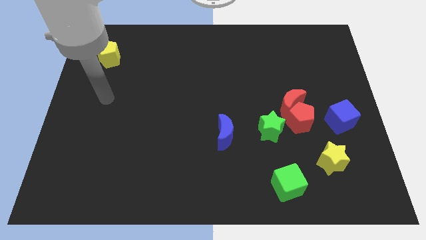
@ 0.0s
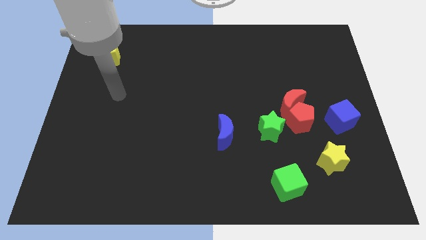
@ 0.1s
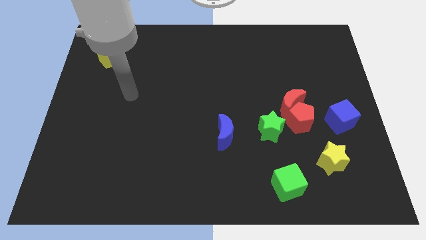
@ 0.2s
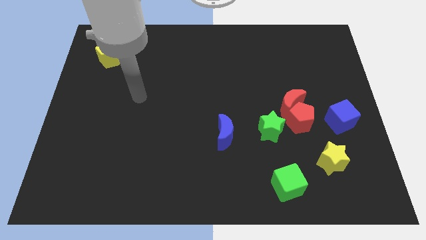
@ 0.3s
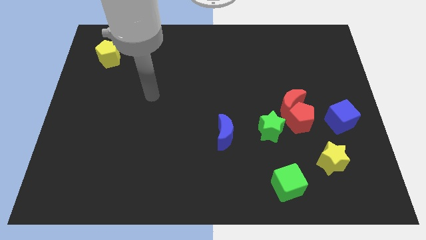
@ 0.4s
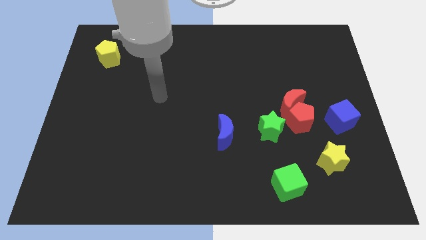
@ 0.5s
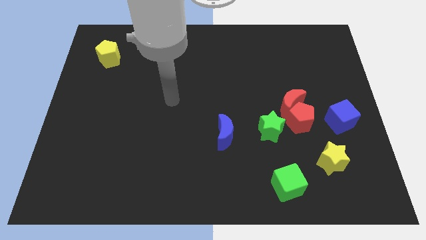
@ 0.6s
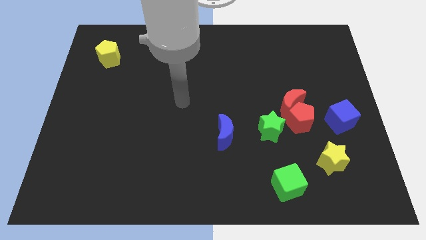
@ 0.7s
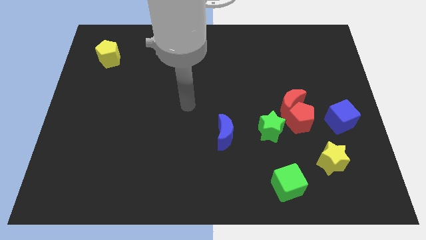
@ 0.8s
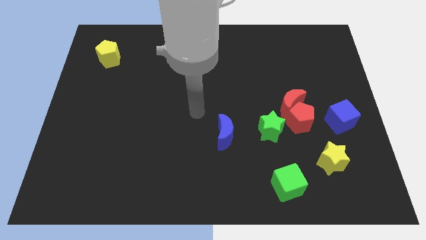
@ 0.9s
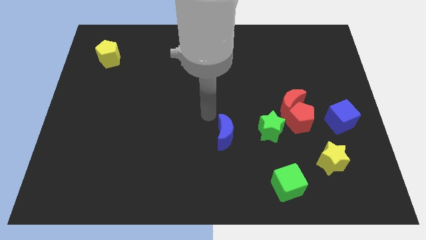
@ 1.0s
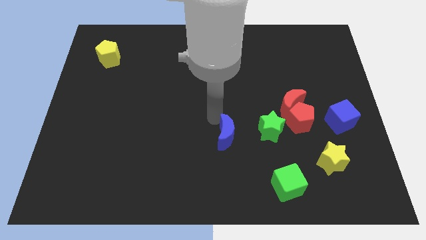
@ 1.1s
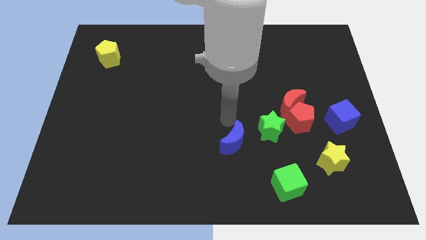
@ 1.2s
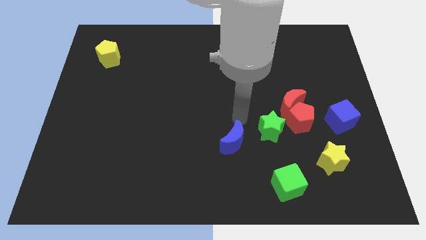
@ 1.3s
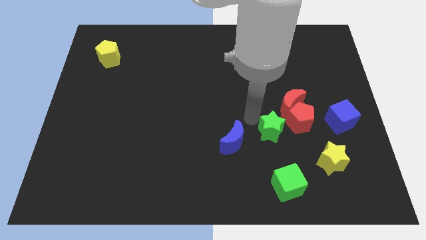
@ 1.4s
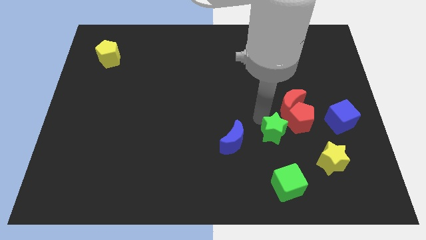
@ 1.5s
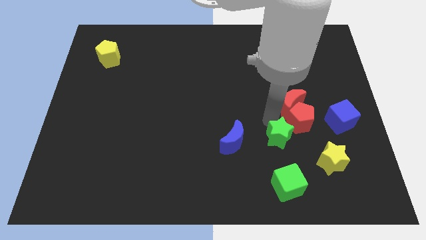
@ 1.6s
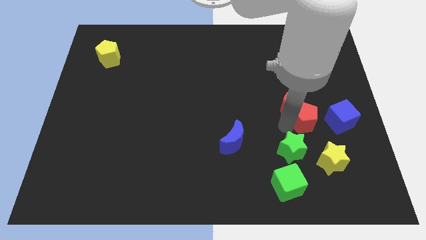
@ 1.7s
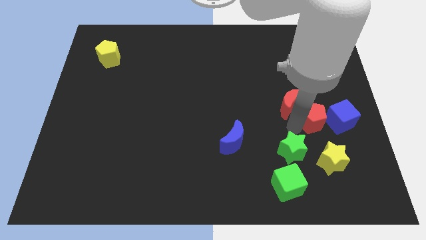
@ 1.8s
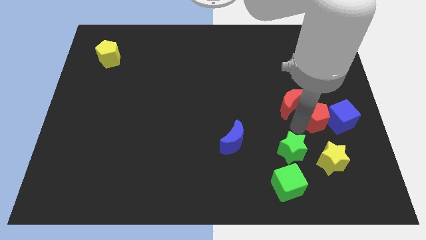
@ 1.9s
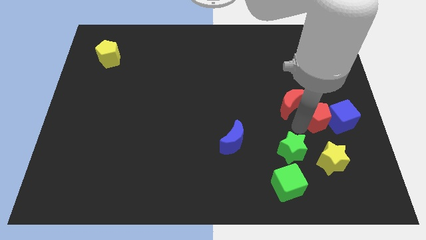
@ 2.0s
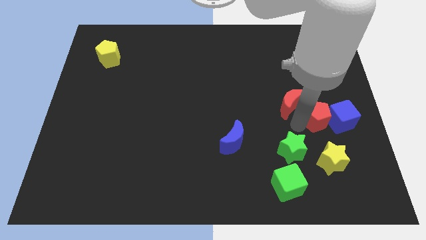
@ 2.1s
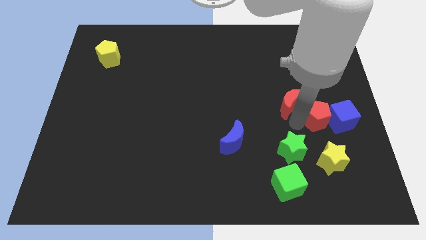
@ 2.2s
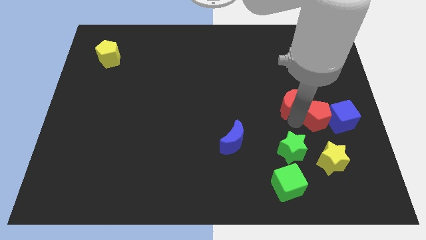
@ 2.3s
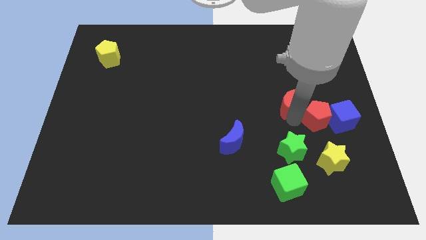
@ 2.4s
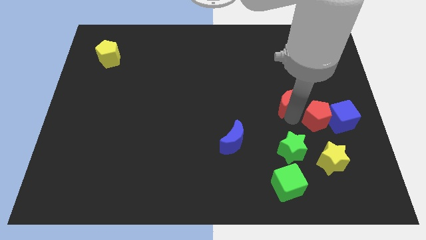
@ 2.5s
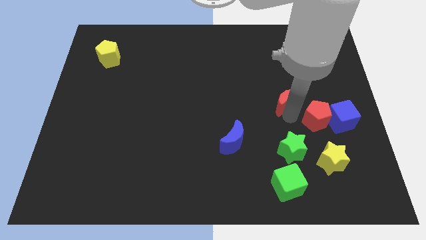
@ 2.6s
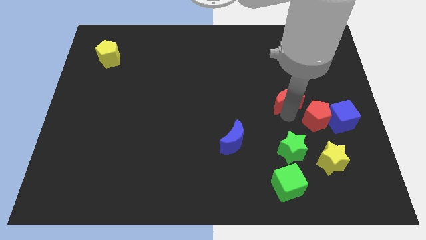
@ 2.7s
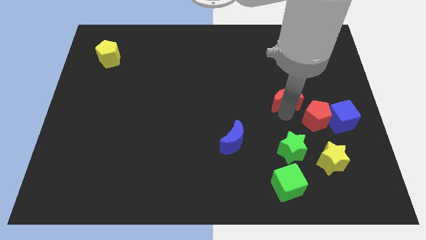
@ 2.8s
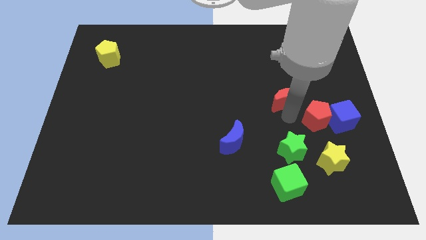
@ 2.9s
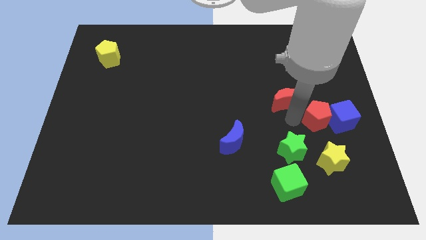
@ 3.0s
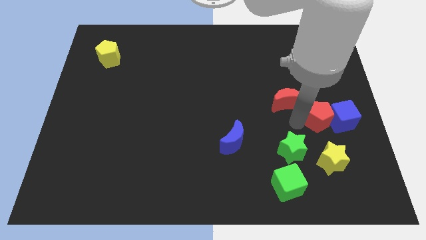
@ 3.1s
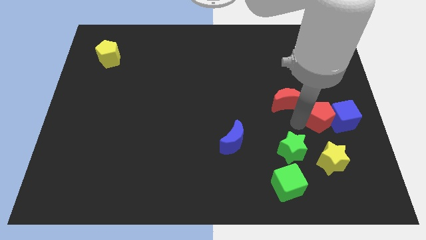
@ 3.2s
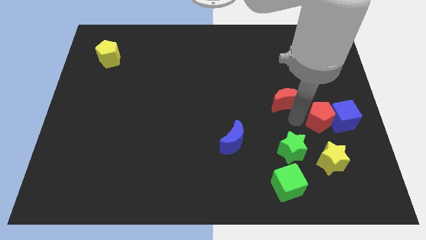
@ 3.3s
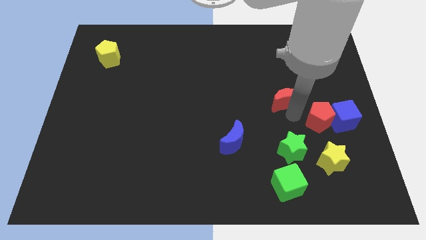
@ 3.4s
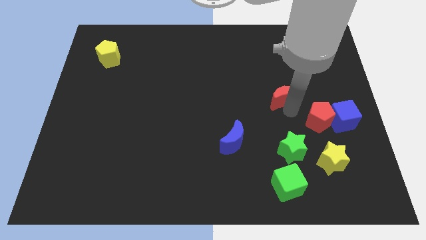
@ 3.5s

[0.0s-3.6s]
separate the red moon from the red pentagon and green star

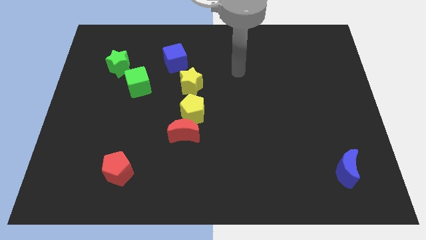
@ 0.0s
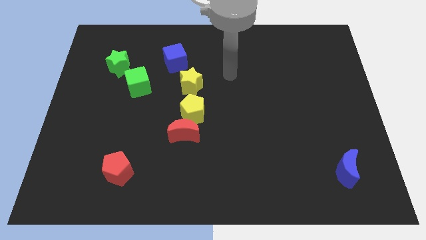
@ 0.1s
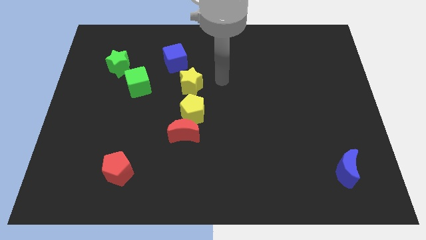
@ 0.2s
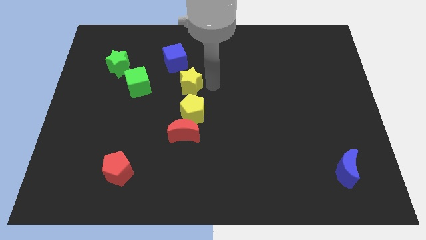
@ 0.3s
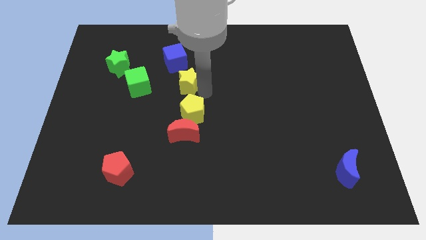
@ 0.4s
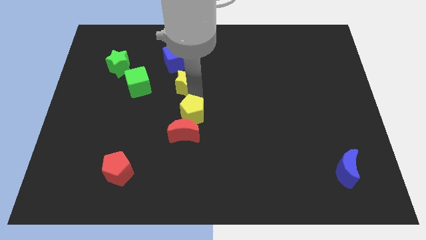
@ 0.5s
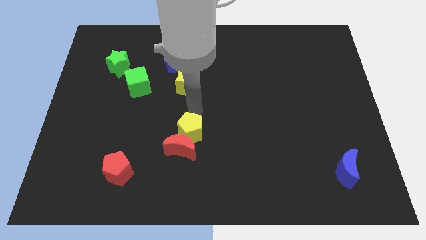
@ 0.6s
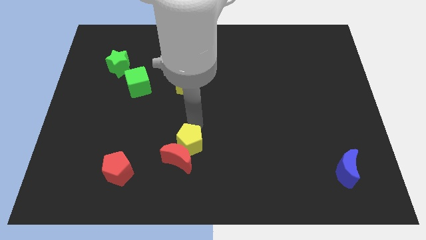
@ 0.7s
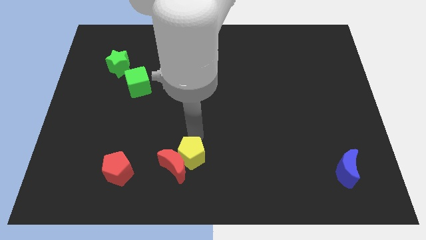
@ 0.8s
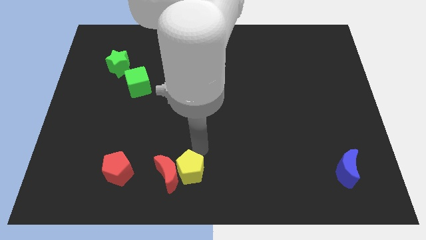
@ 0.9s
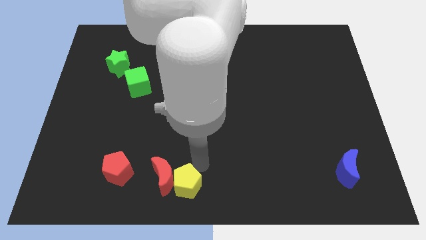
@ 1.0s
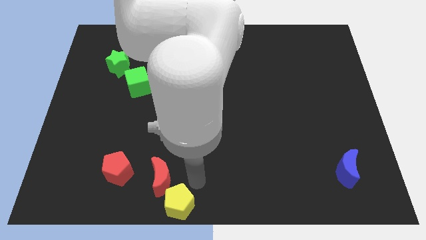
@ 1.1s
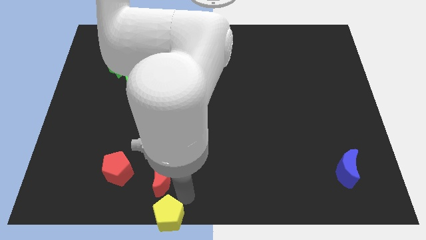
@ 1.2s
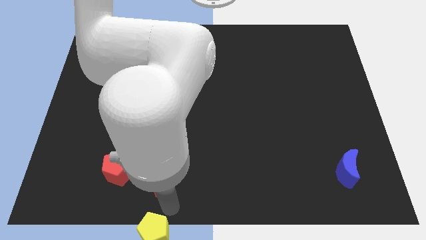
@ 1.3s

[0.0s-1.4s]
move the red moon away from the yellow pentagon

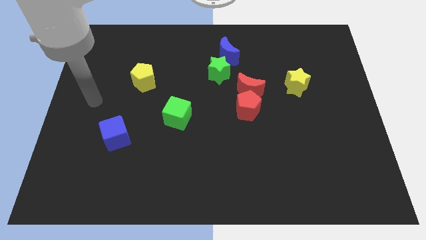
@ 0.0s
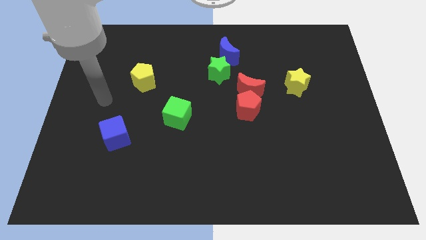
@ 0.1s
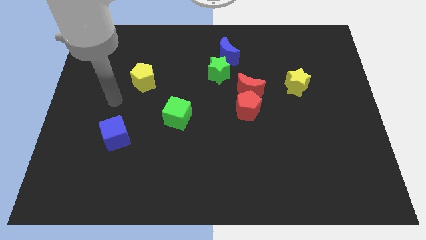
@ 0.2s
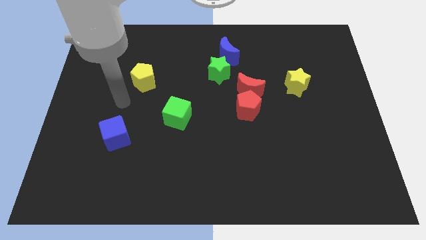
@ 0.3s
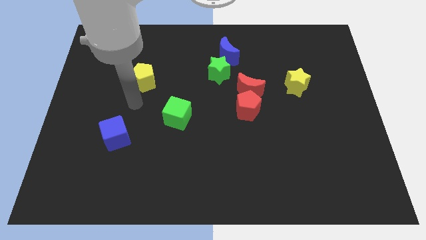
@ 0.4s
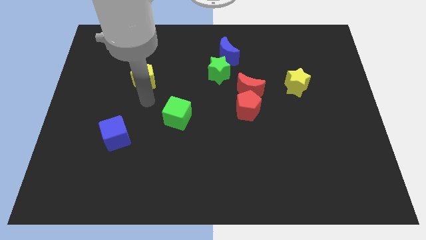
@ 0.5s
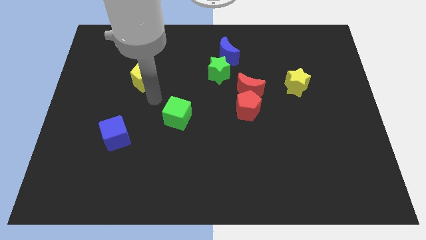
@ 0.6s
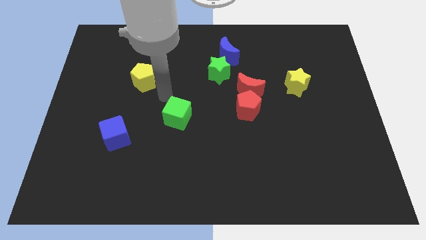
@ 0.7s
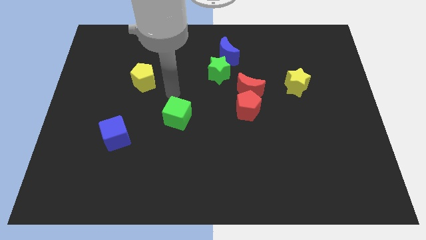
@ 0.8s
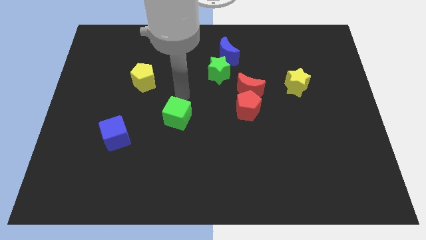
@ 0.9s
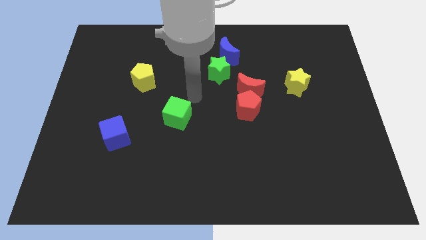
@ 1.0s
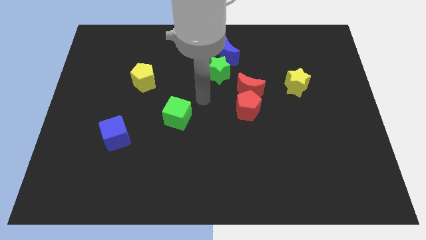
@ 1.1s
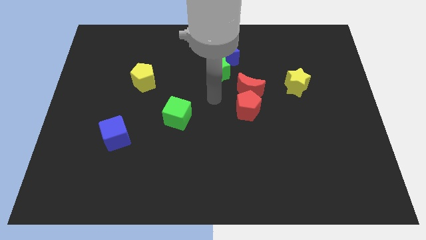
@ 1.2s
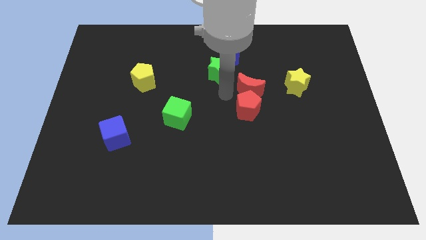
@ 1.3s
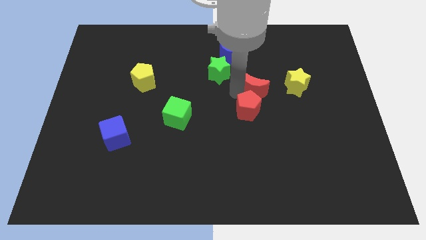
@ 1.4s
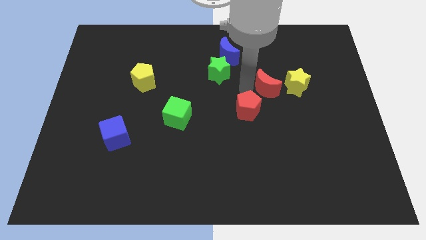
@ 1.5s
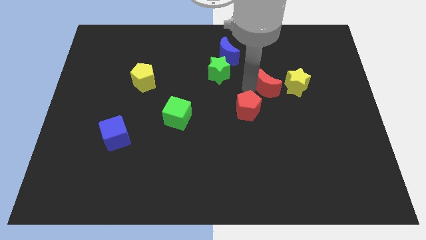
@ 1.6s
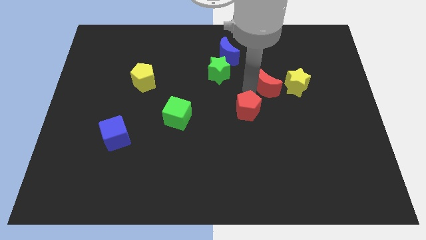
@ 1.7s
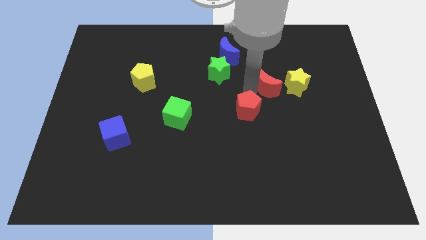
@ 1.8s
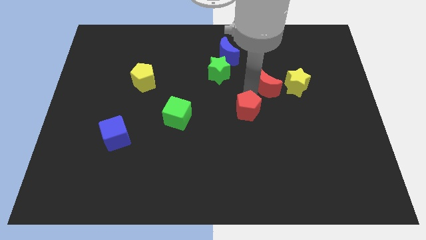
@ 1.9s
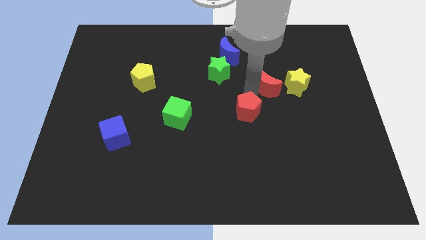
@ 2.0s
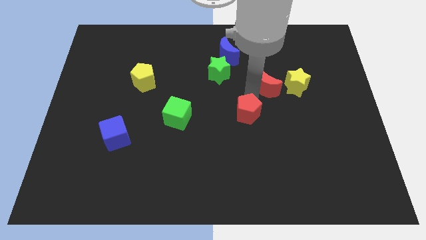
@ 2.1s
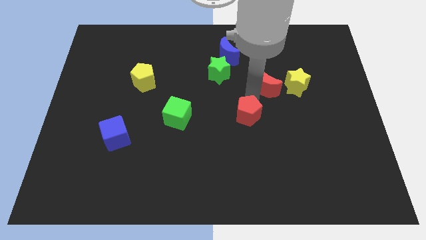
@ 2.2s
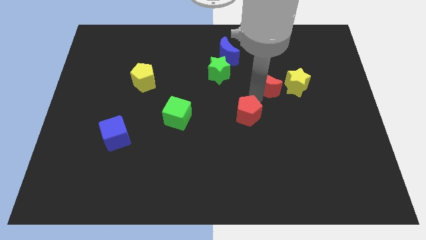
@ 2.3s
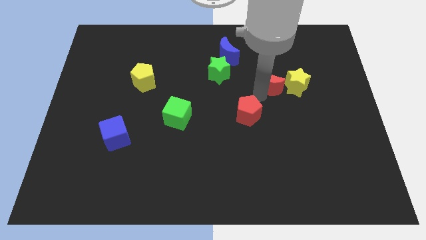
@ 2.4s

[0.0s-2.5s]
pull the red pentagon apart from the red moon

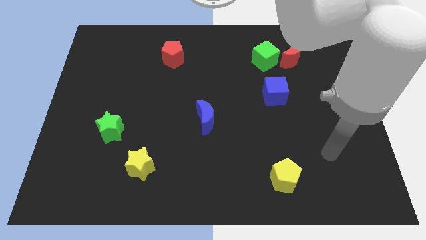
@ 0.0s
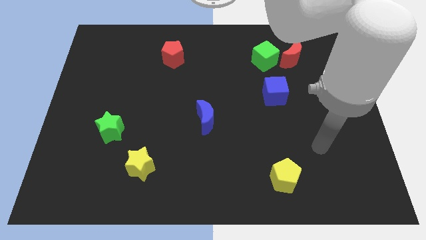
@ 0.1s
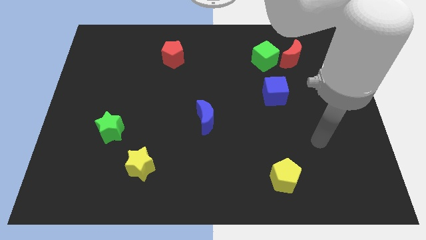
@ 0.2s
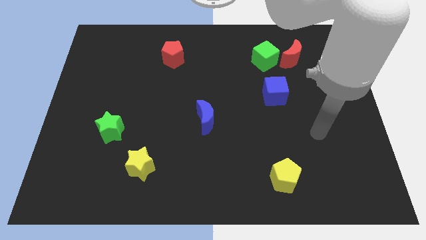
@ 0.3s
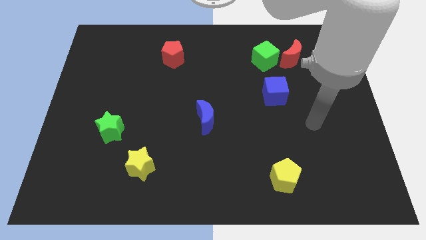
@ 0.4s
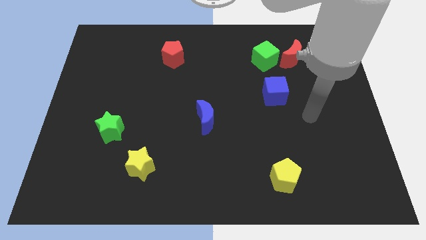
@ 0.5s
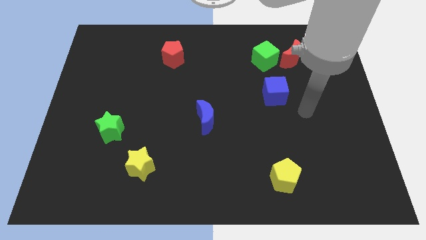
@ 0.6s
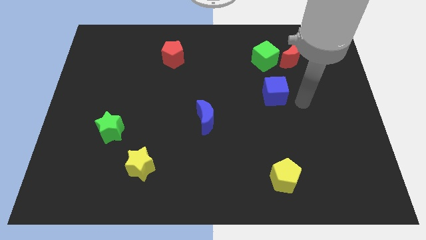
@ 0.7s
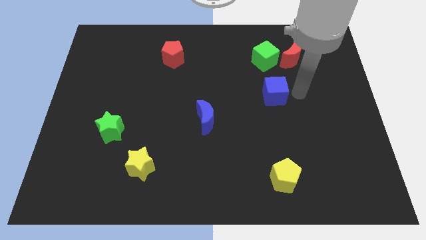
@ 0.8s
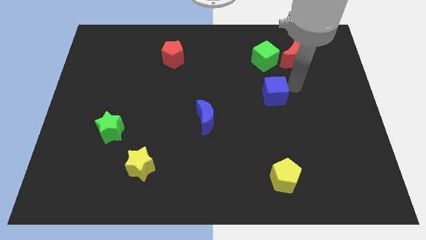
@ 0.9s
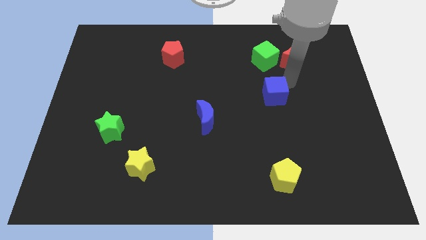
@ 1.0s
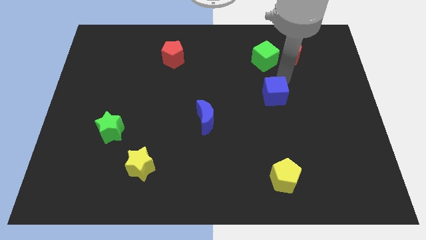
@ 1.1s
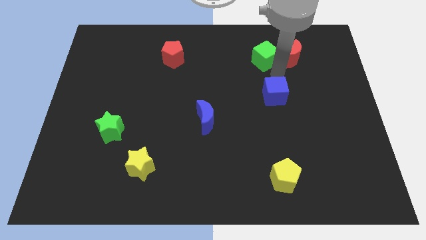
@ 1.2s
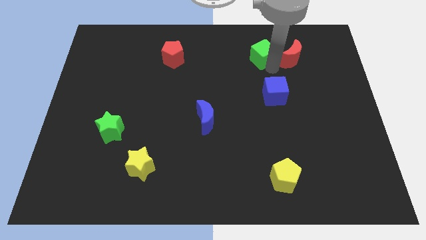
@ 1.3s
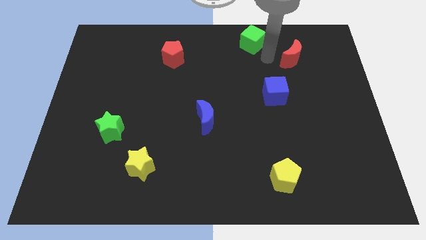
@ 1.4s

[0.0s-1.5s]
separate the red moon from the green cube

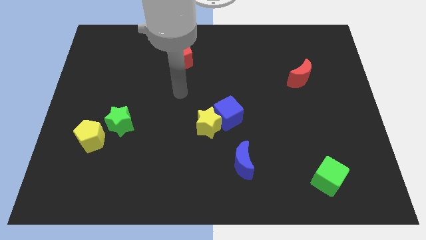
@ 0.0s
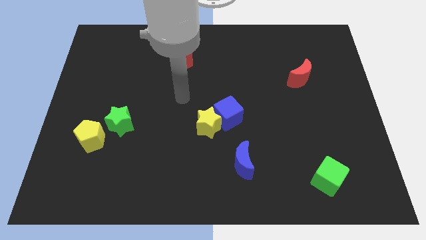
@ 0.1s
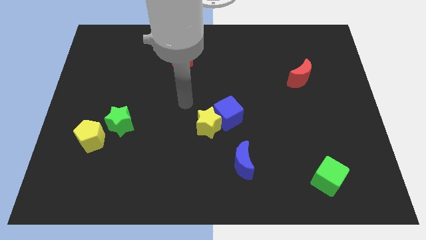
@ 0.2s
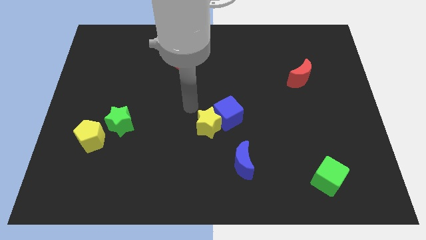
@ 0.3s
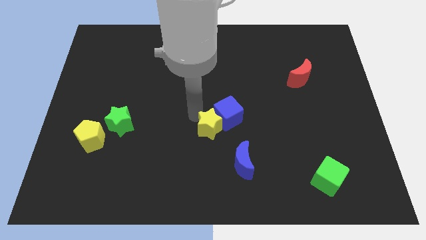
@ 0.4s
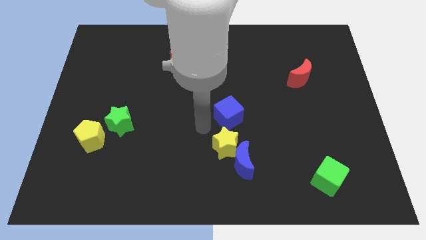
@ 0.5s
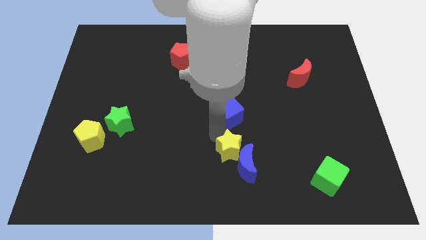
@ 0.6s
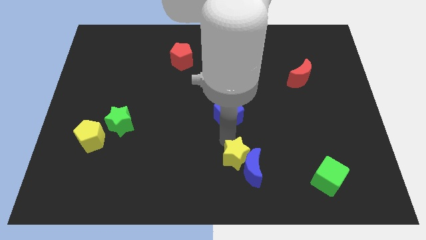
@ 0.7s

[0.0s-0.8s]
move the blue cube away from the yellow star
